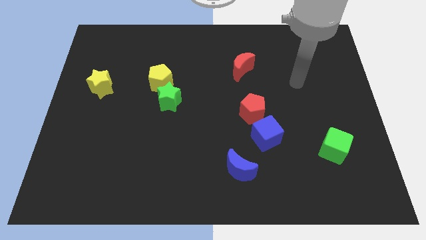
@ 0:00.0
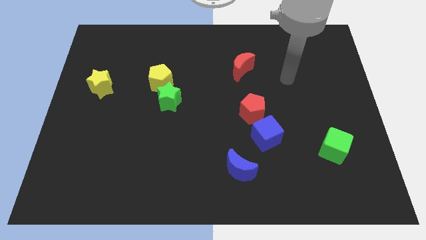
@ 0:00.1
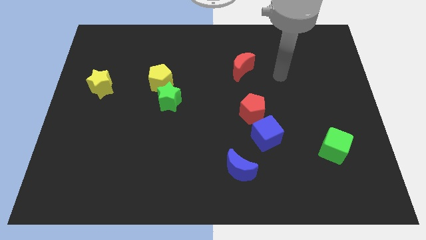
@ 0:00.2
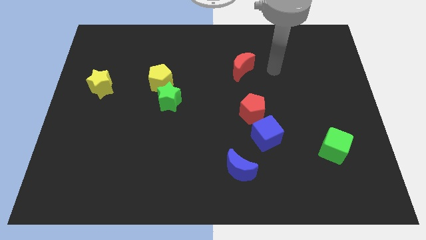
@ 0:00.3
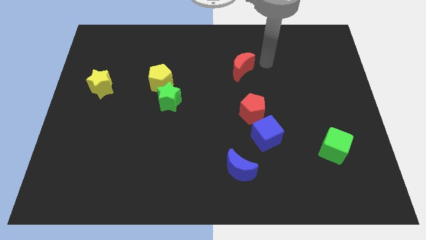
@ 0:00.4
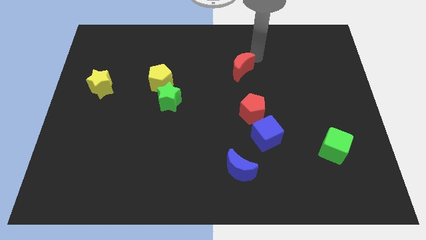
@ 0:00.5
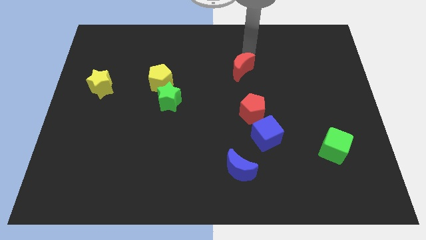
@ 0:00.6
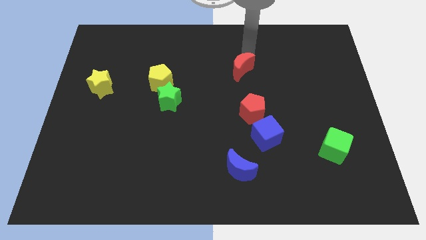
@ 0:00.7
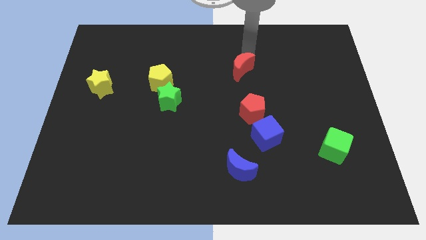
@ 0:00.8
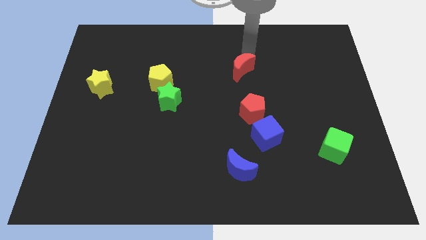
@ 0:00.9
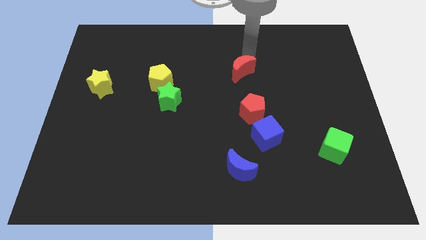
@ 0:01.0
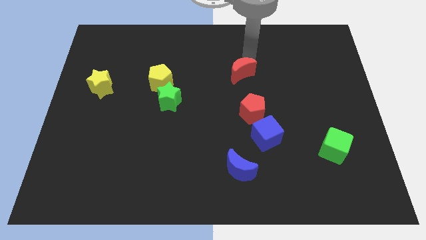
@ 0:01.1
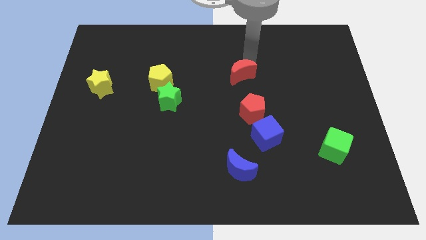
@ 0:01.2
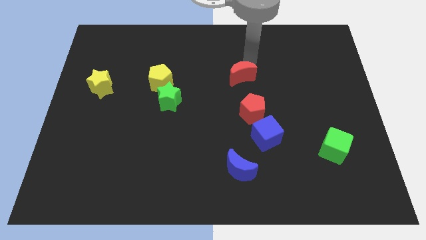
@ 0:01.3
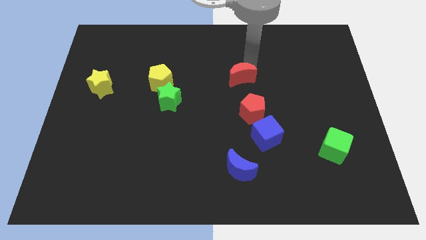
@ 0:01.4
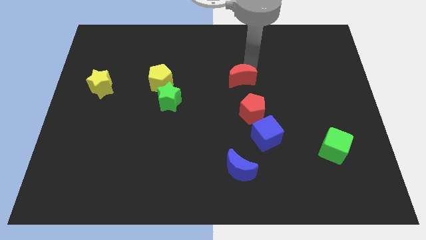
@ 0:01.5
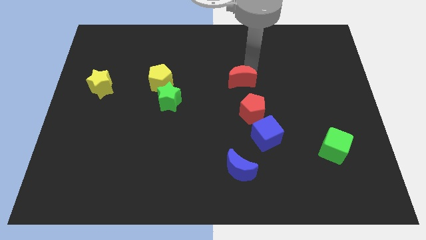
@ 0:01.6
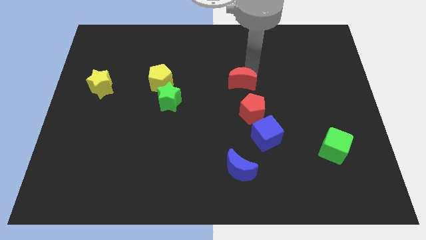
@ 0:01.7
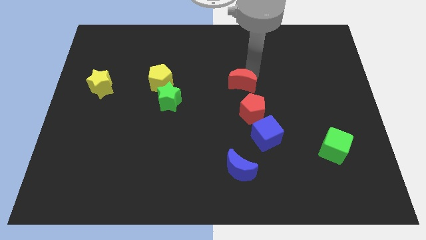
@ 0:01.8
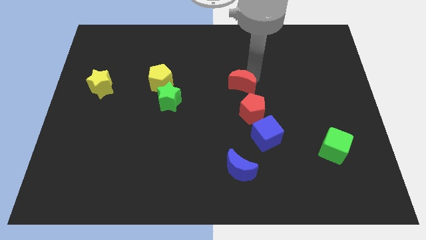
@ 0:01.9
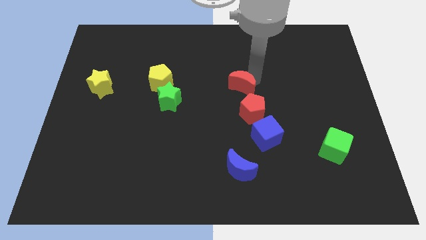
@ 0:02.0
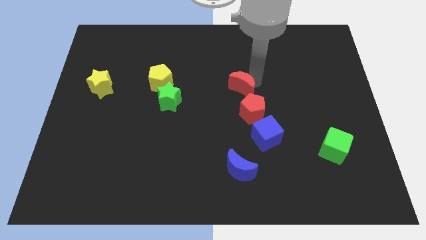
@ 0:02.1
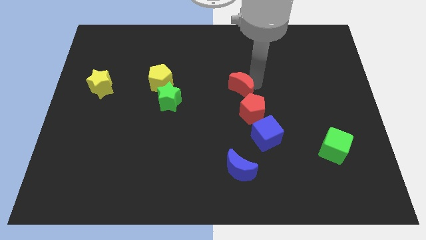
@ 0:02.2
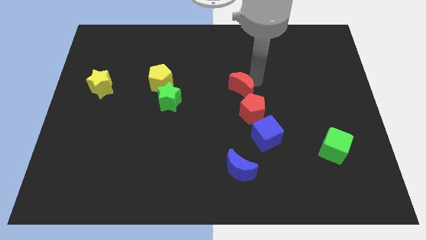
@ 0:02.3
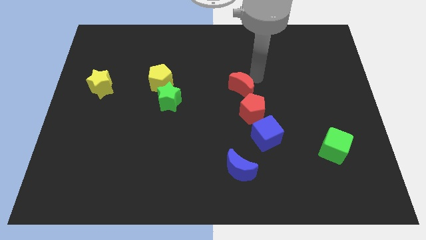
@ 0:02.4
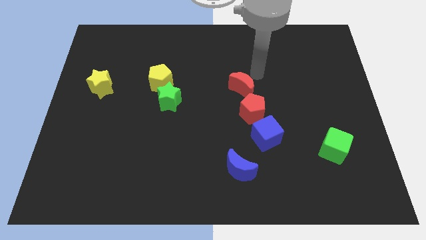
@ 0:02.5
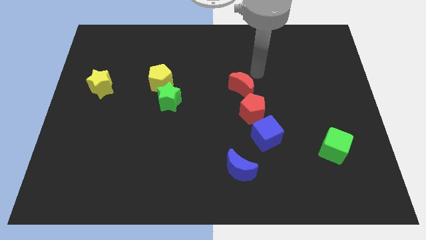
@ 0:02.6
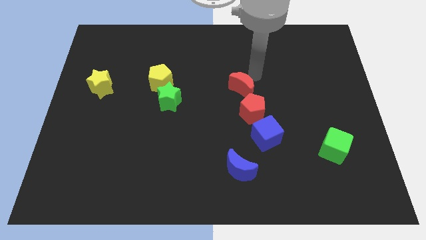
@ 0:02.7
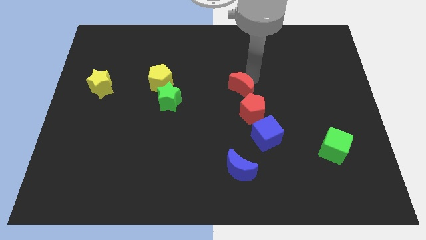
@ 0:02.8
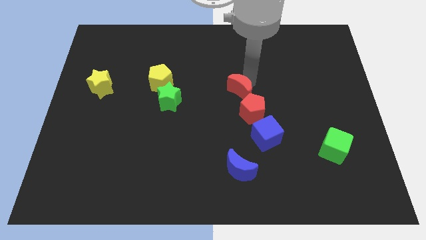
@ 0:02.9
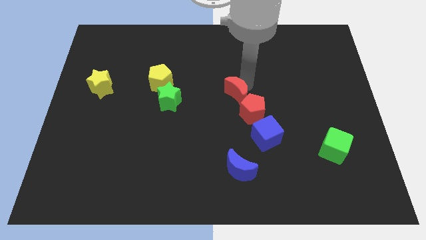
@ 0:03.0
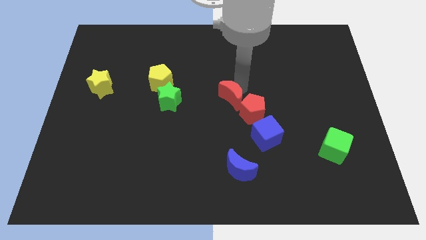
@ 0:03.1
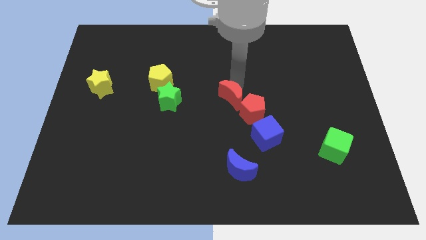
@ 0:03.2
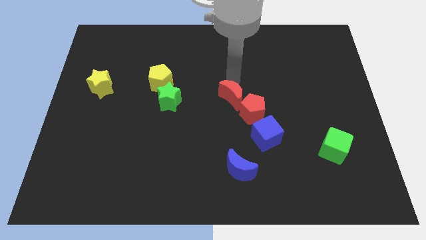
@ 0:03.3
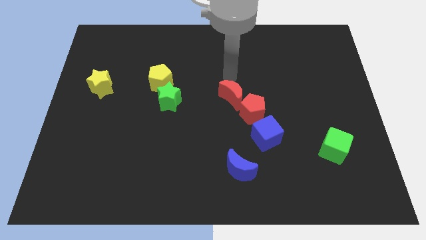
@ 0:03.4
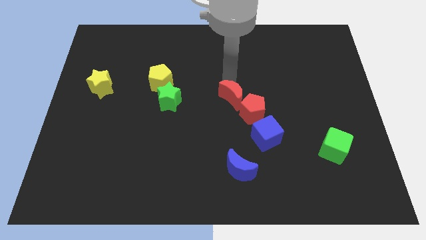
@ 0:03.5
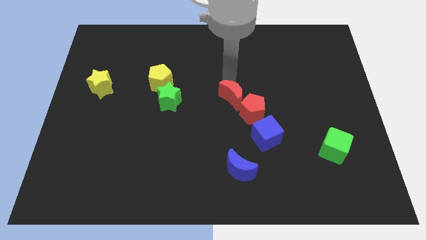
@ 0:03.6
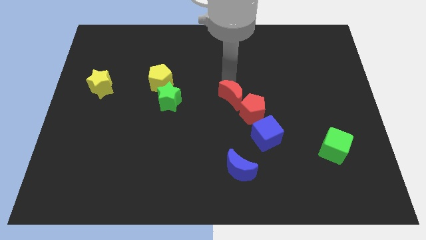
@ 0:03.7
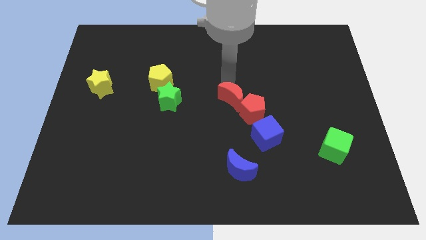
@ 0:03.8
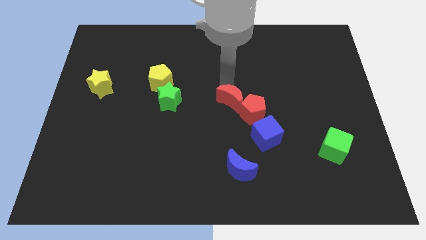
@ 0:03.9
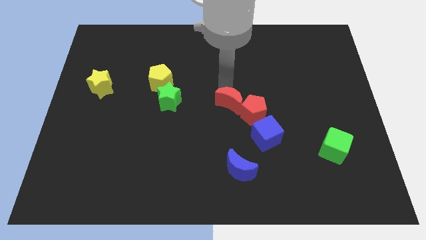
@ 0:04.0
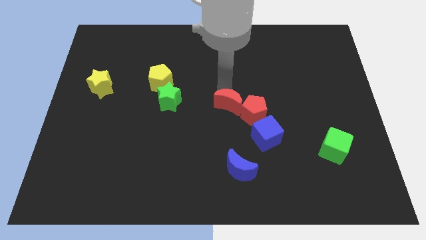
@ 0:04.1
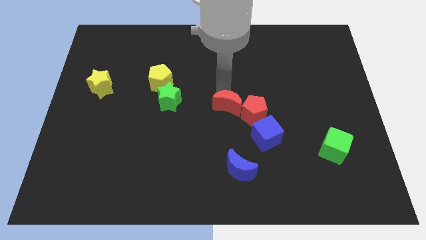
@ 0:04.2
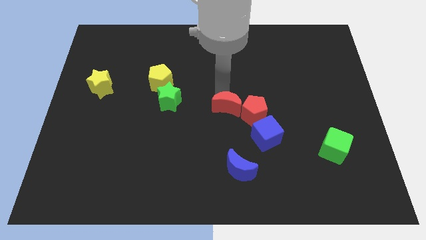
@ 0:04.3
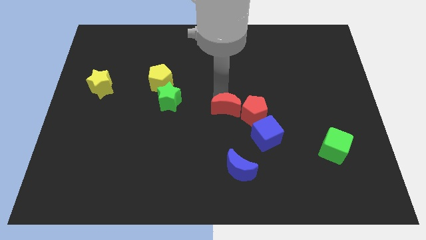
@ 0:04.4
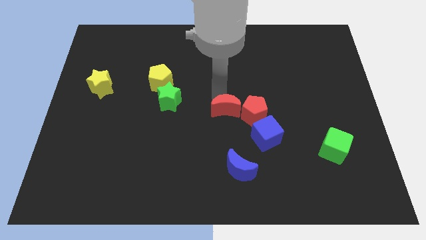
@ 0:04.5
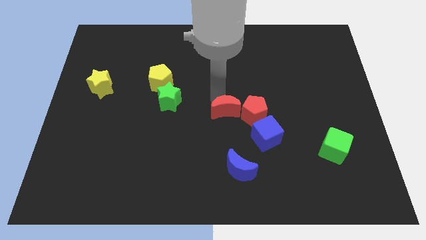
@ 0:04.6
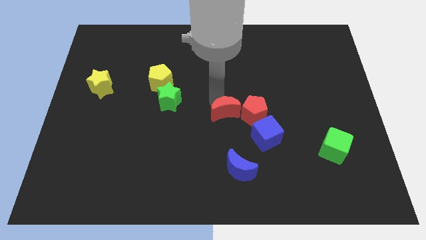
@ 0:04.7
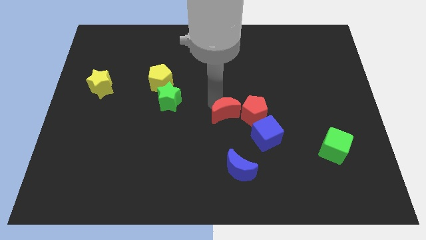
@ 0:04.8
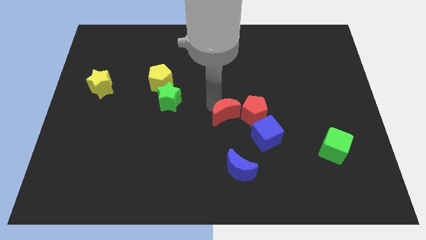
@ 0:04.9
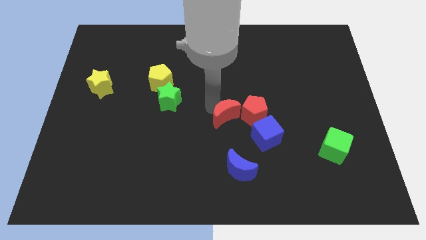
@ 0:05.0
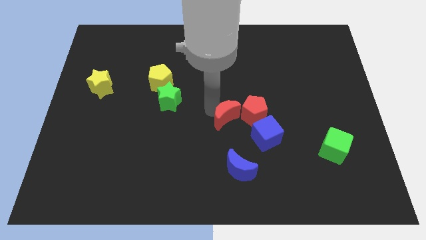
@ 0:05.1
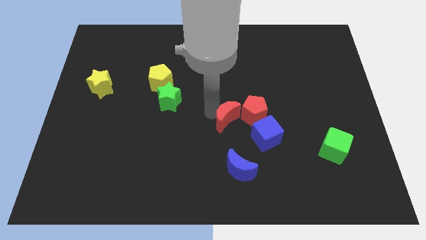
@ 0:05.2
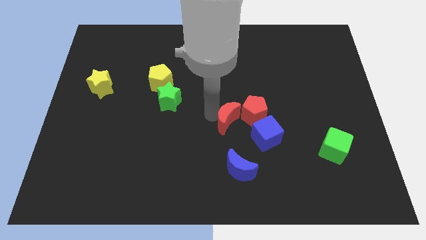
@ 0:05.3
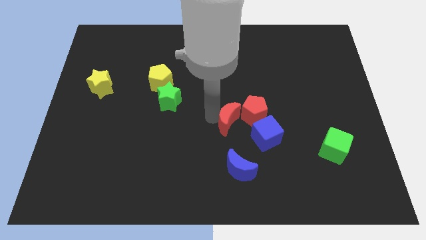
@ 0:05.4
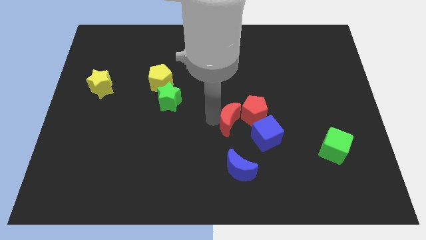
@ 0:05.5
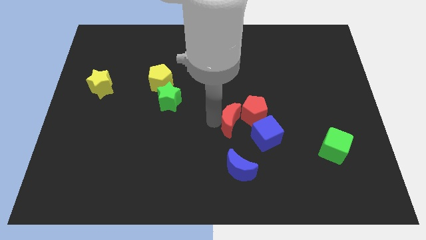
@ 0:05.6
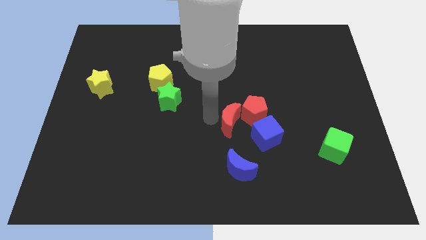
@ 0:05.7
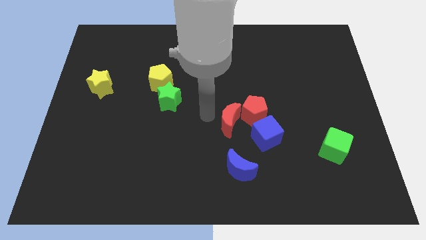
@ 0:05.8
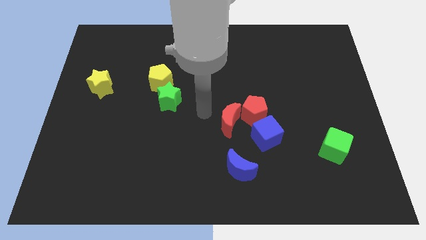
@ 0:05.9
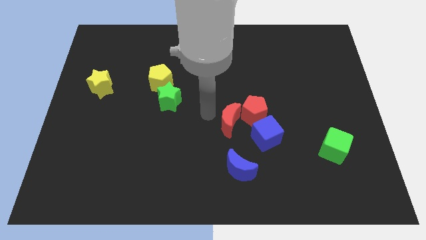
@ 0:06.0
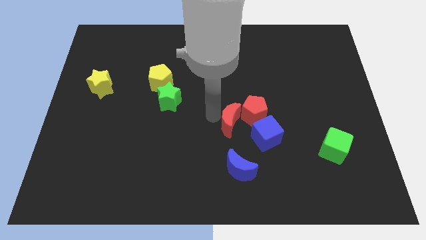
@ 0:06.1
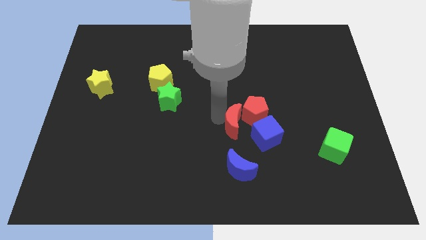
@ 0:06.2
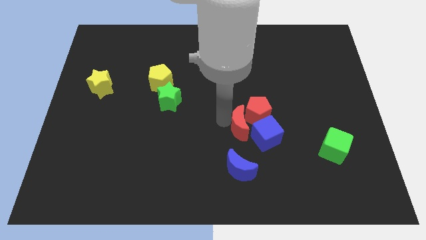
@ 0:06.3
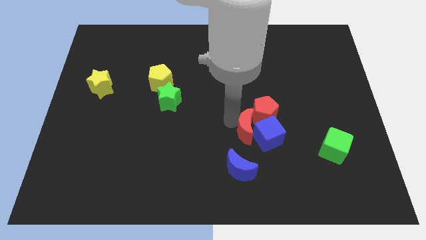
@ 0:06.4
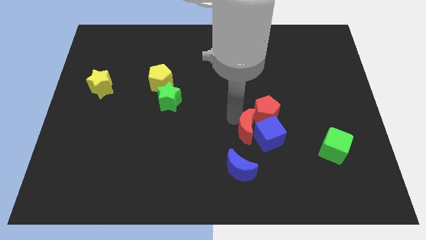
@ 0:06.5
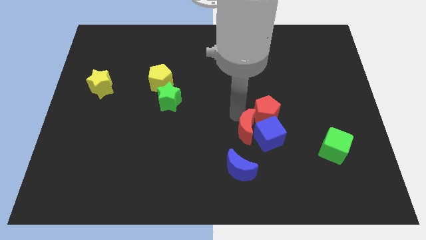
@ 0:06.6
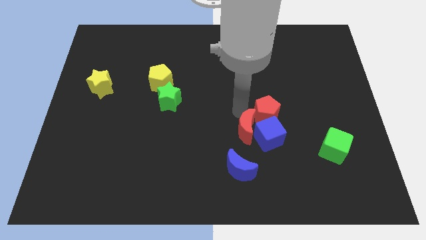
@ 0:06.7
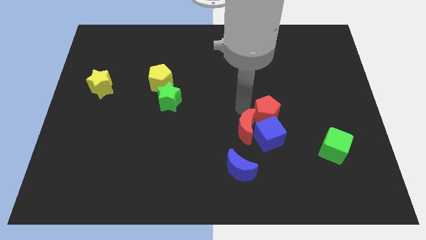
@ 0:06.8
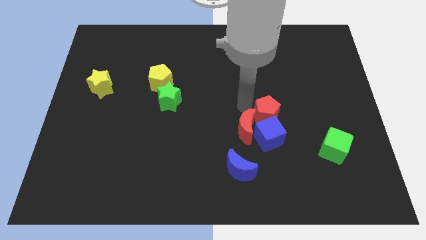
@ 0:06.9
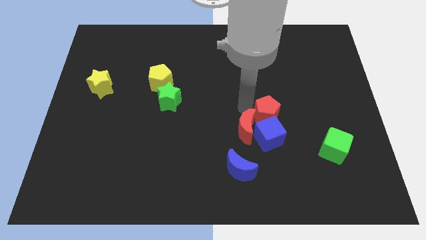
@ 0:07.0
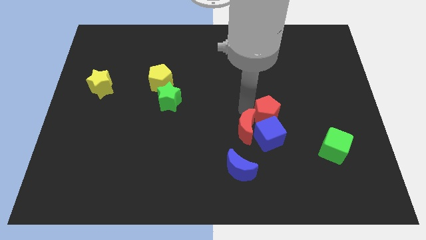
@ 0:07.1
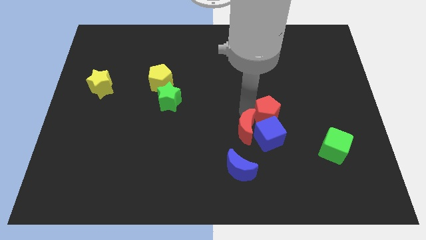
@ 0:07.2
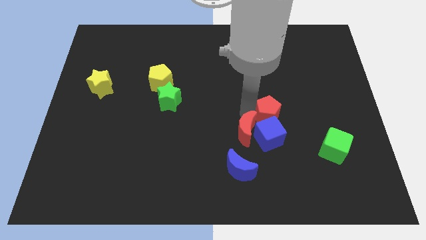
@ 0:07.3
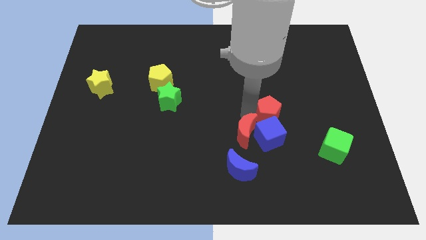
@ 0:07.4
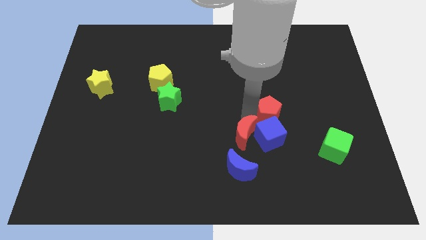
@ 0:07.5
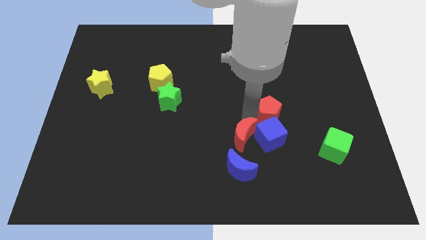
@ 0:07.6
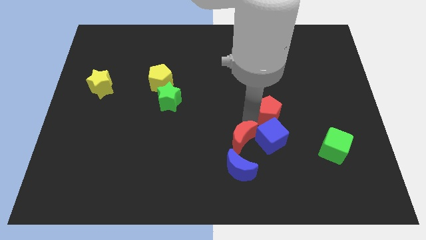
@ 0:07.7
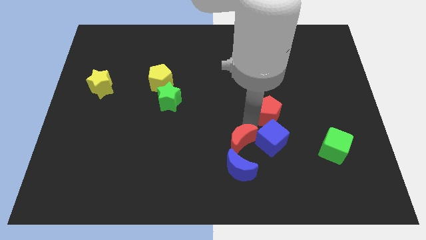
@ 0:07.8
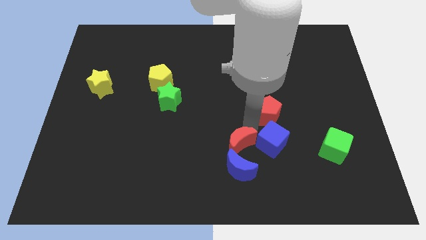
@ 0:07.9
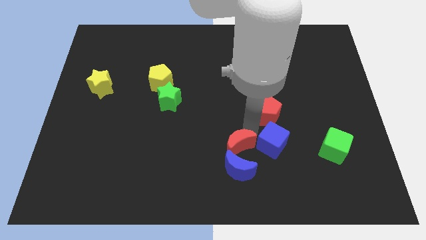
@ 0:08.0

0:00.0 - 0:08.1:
slide the red moon towards the blue moon
